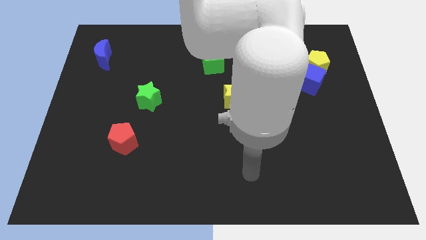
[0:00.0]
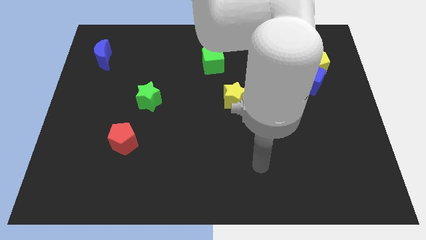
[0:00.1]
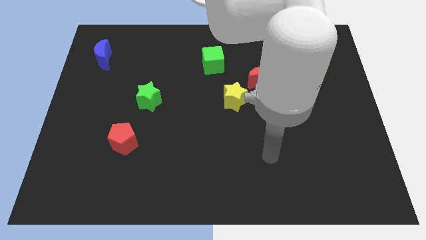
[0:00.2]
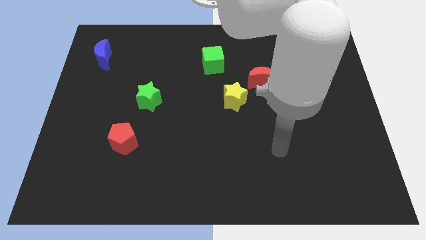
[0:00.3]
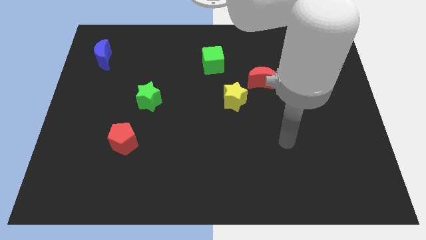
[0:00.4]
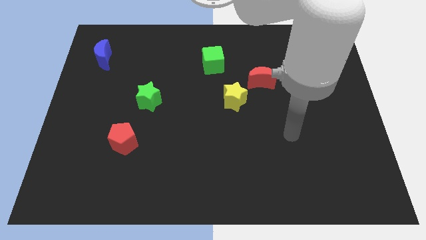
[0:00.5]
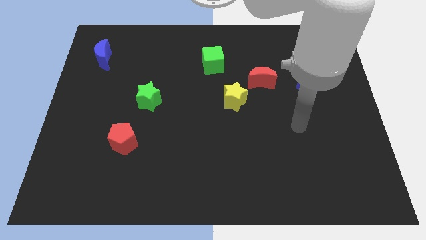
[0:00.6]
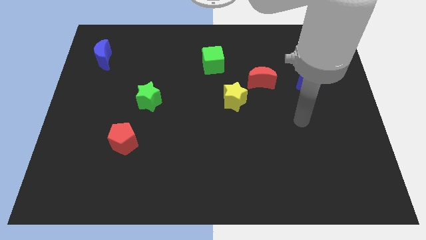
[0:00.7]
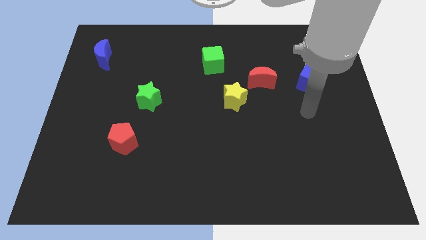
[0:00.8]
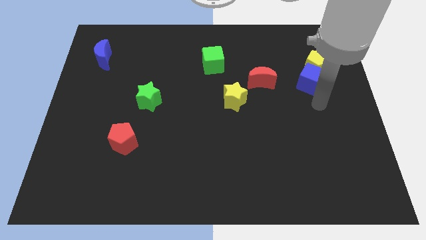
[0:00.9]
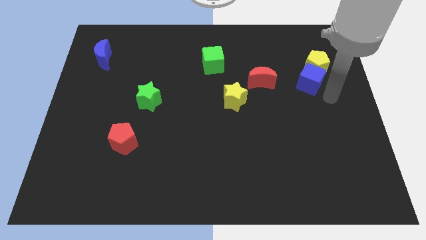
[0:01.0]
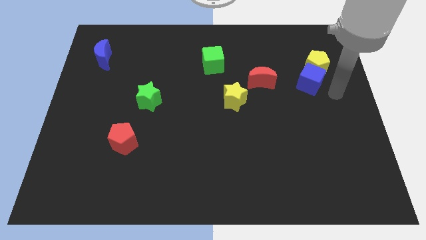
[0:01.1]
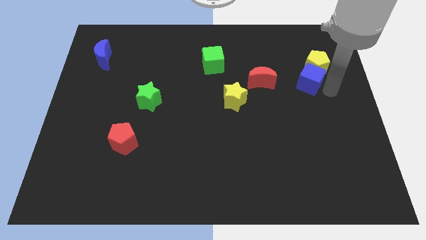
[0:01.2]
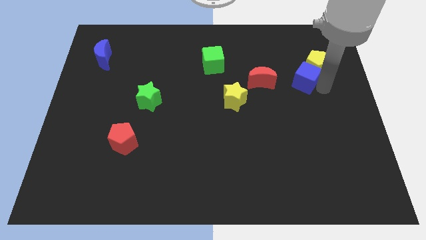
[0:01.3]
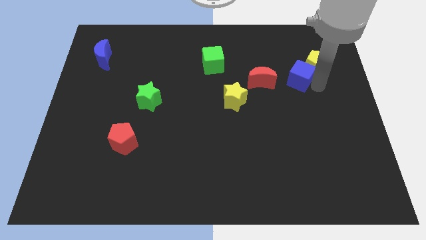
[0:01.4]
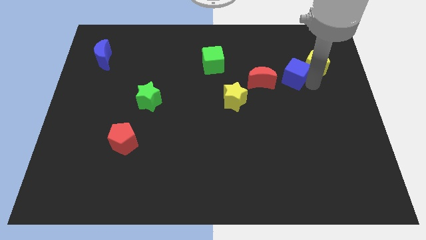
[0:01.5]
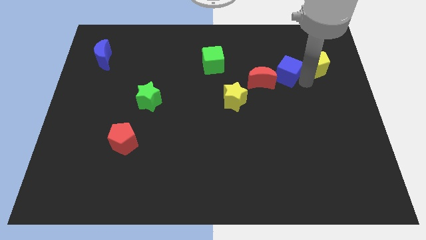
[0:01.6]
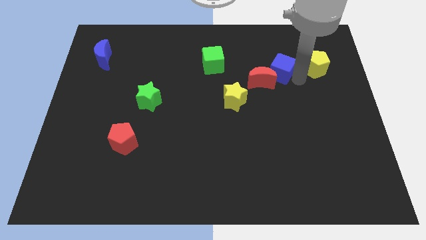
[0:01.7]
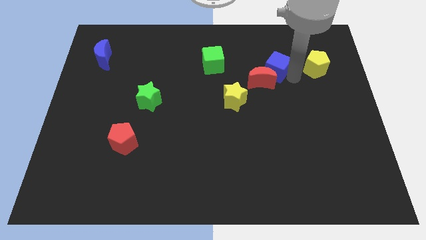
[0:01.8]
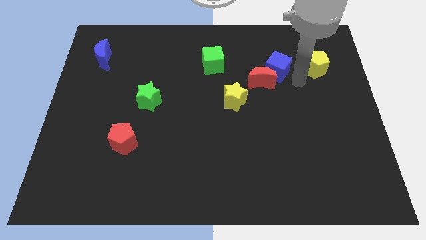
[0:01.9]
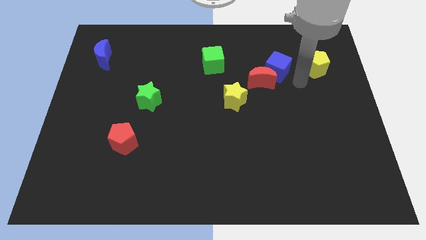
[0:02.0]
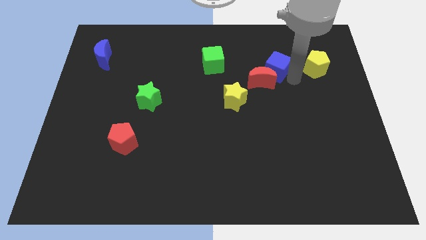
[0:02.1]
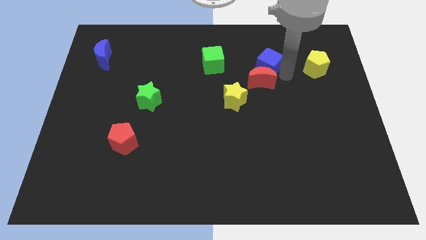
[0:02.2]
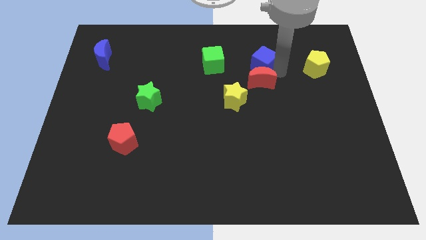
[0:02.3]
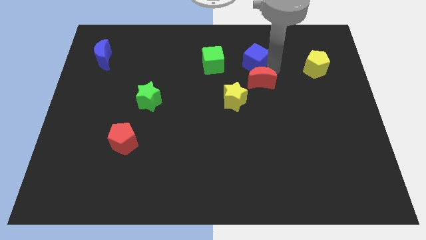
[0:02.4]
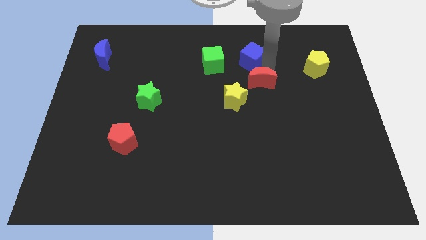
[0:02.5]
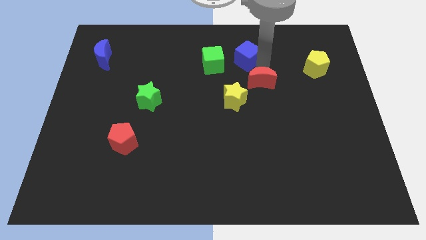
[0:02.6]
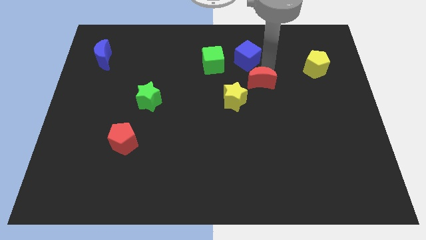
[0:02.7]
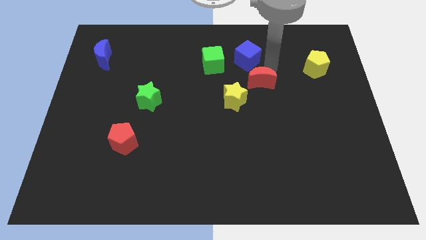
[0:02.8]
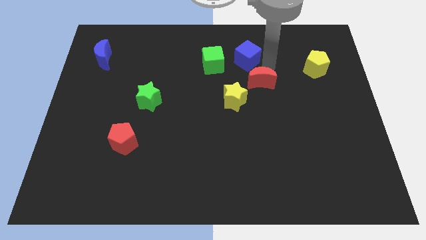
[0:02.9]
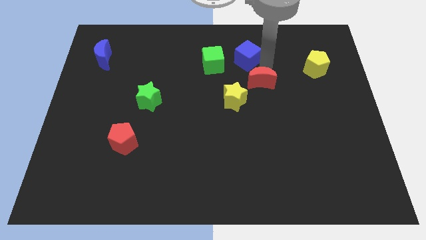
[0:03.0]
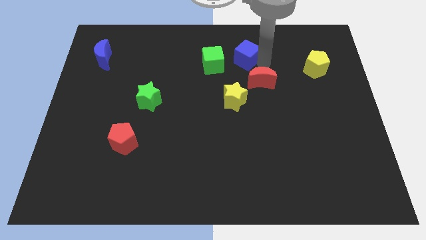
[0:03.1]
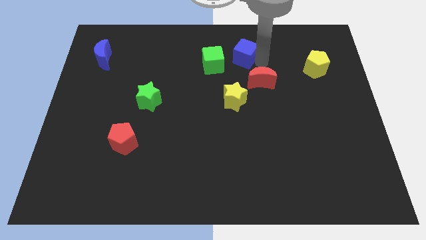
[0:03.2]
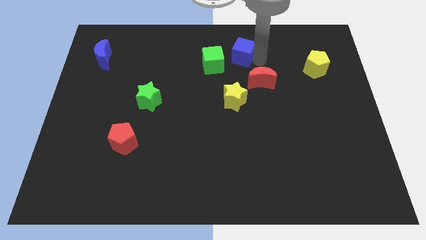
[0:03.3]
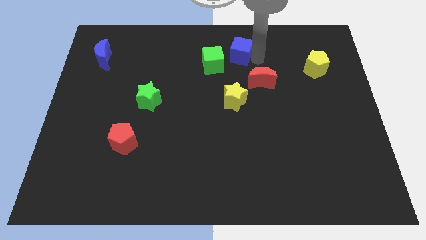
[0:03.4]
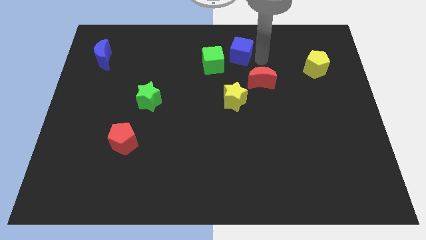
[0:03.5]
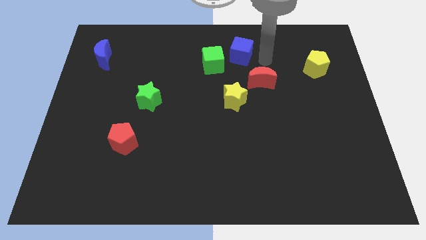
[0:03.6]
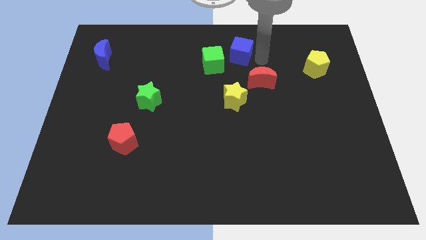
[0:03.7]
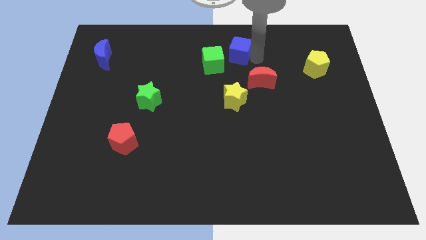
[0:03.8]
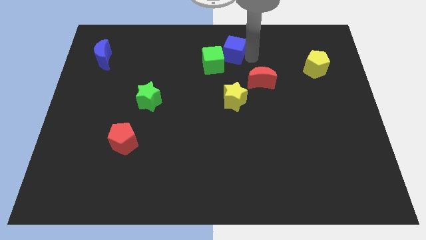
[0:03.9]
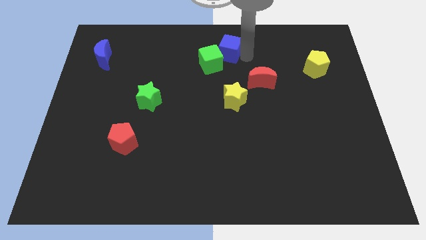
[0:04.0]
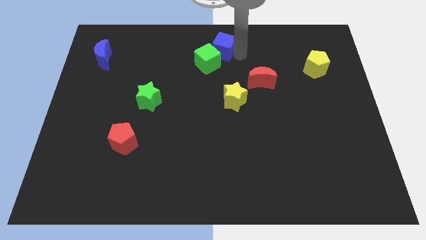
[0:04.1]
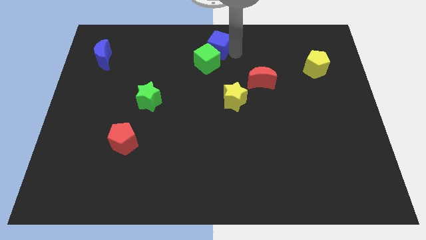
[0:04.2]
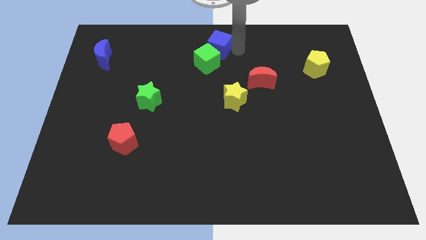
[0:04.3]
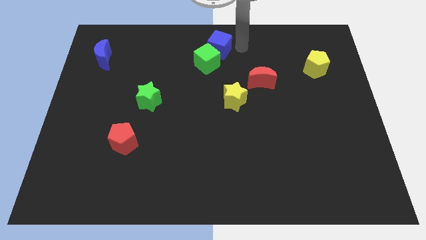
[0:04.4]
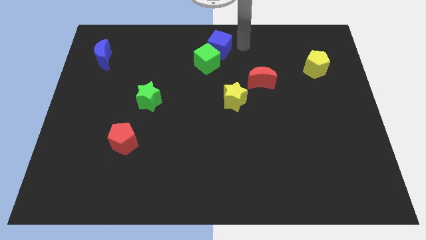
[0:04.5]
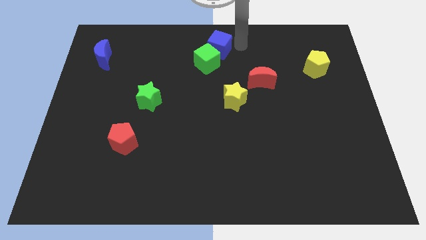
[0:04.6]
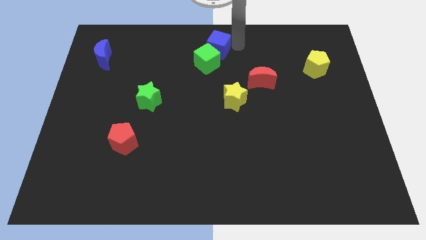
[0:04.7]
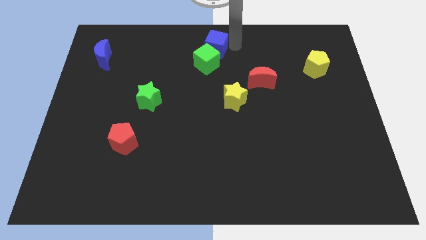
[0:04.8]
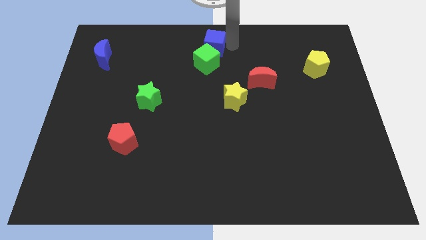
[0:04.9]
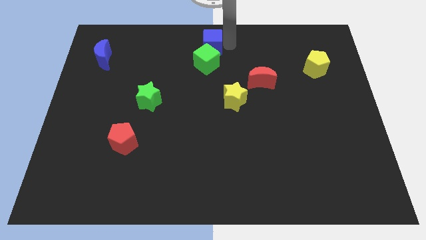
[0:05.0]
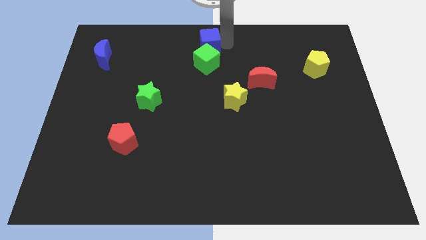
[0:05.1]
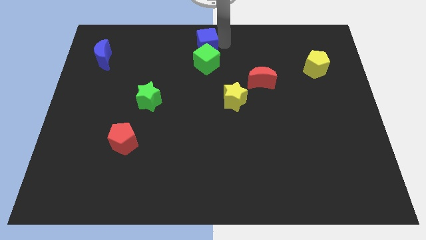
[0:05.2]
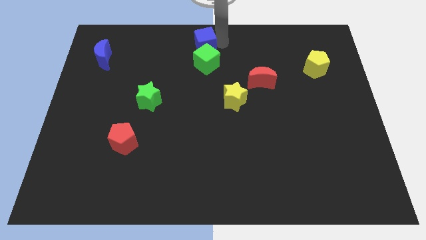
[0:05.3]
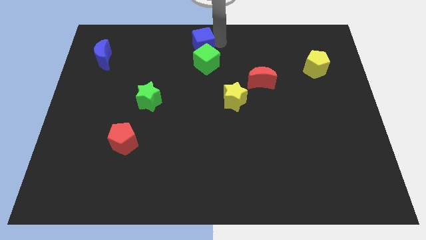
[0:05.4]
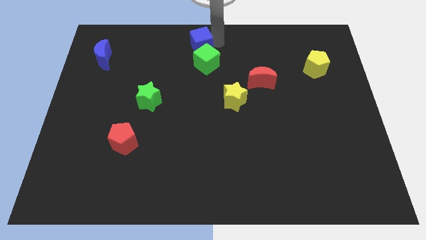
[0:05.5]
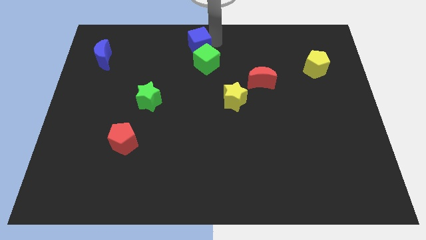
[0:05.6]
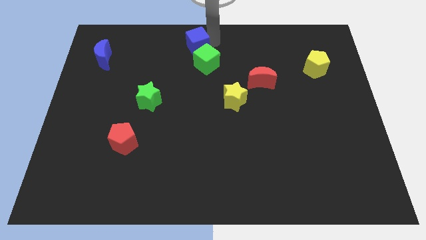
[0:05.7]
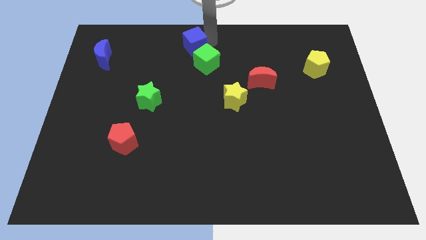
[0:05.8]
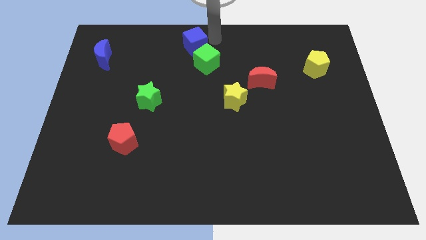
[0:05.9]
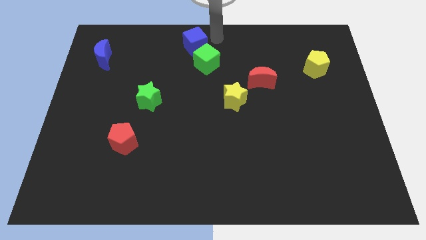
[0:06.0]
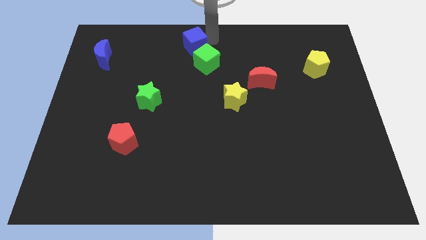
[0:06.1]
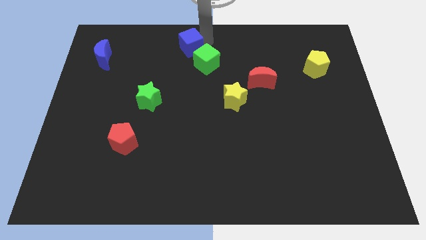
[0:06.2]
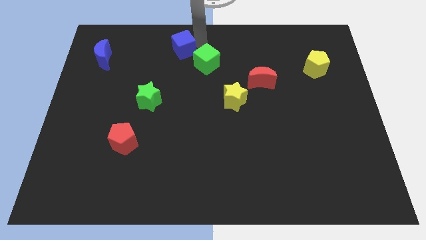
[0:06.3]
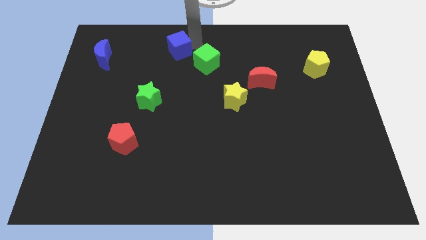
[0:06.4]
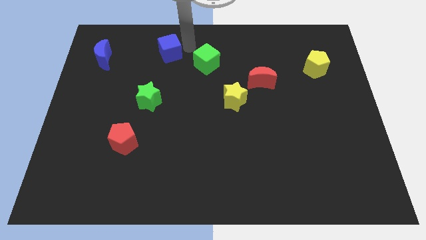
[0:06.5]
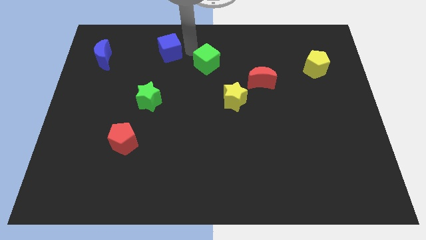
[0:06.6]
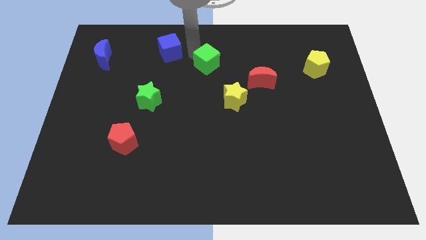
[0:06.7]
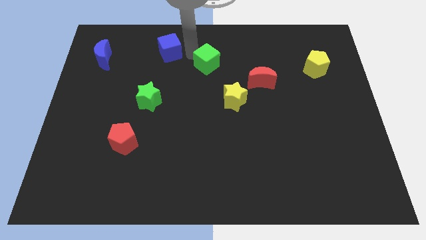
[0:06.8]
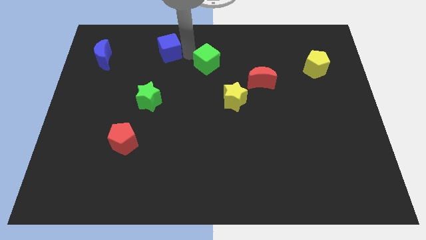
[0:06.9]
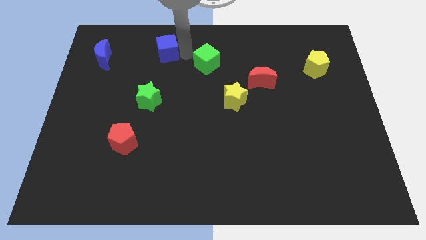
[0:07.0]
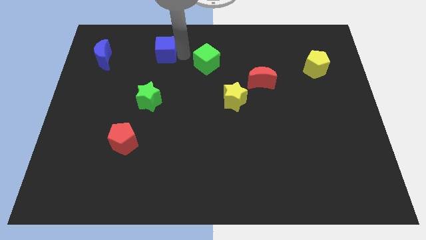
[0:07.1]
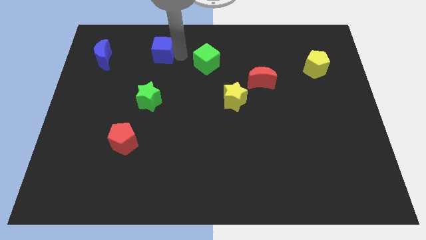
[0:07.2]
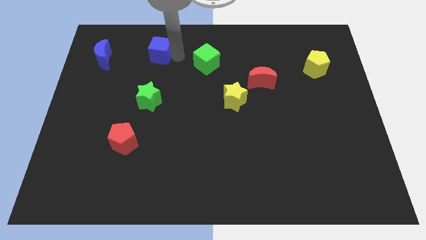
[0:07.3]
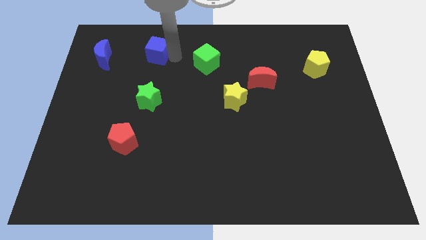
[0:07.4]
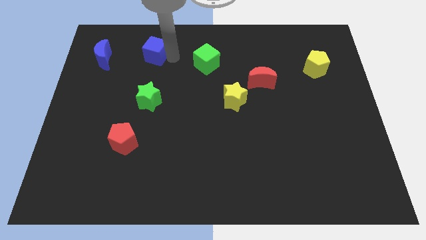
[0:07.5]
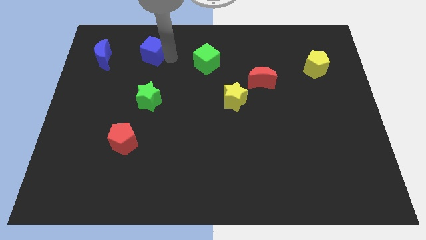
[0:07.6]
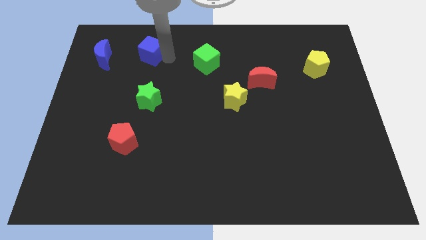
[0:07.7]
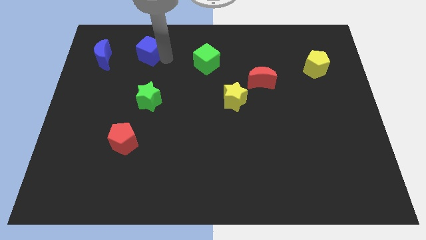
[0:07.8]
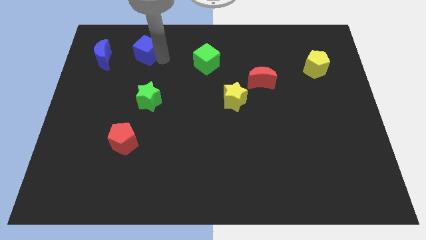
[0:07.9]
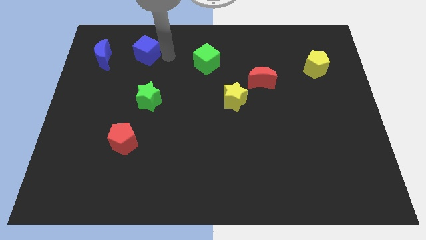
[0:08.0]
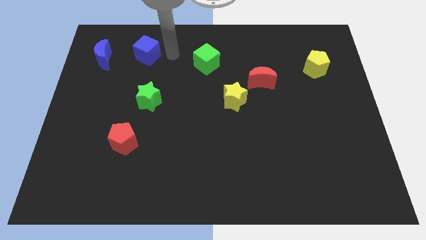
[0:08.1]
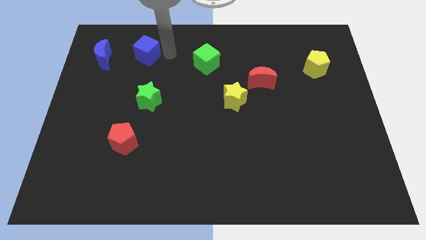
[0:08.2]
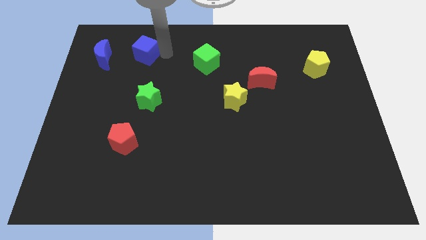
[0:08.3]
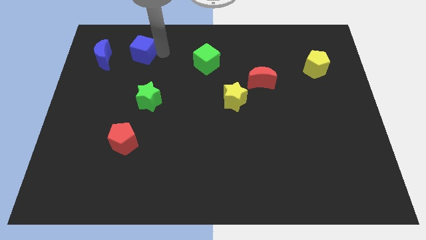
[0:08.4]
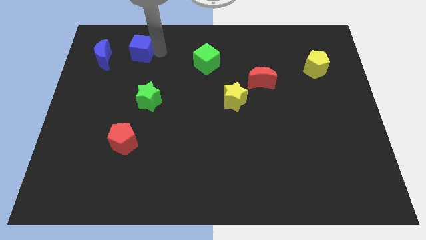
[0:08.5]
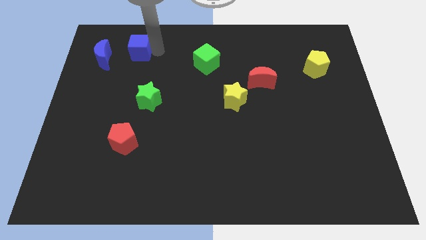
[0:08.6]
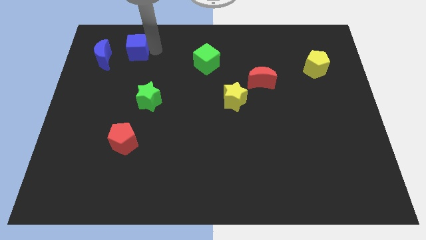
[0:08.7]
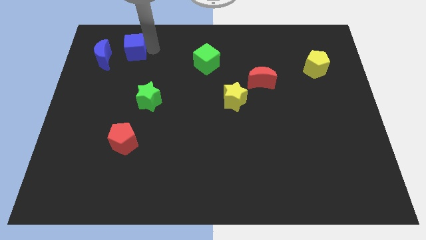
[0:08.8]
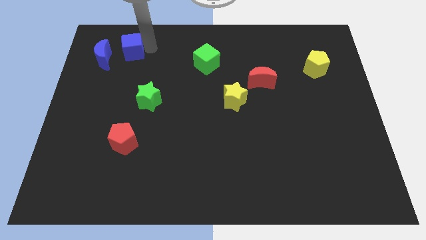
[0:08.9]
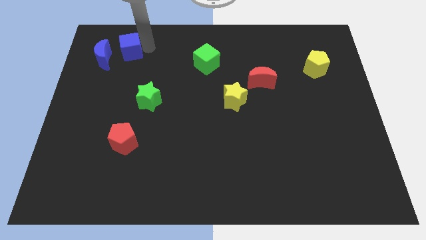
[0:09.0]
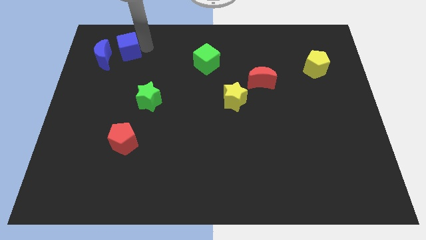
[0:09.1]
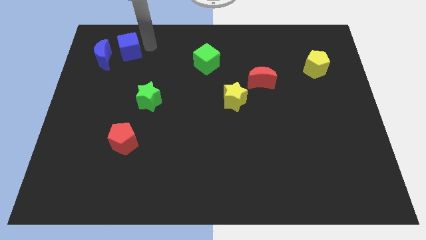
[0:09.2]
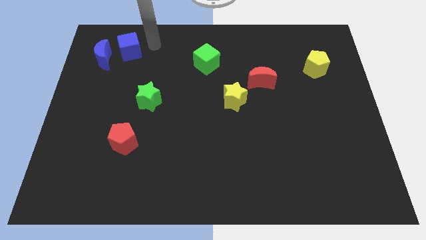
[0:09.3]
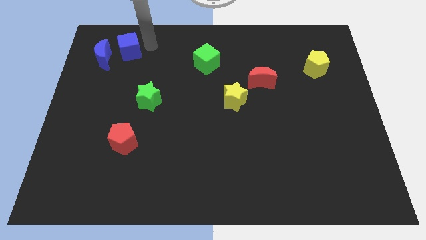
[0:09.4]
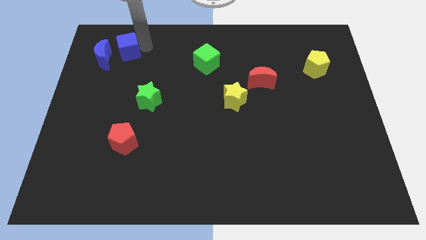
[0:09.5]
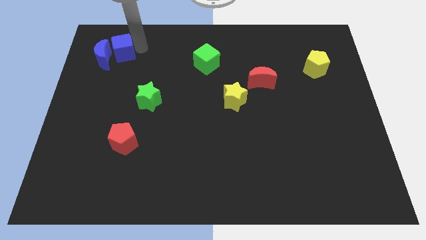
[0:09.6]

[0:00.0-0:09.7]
put the blue cube close to the blue moon
